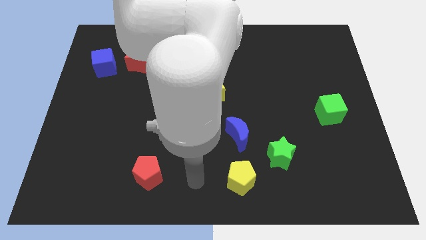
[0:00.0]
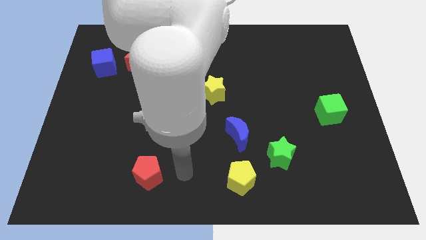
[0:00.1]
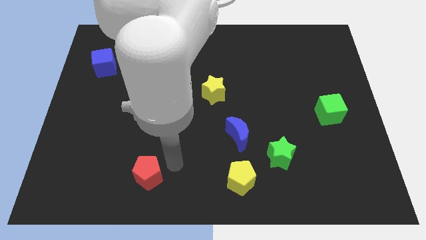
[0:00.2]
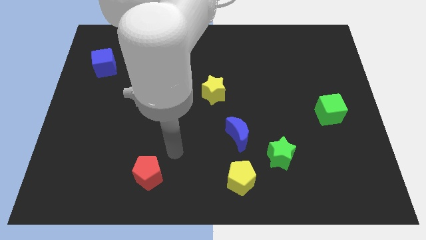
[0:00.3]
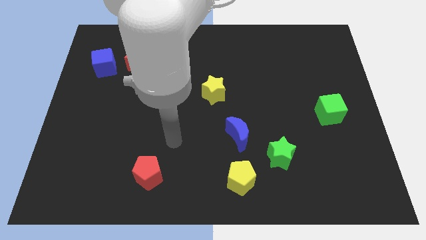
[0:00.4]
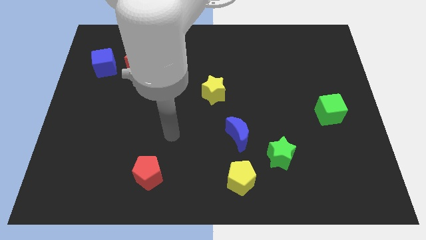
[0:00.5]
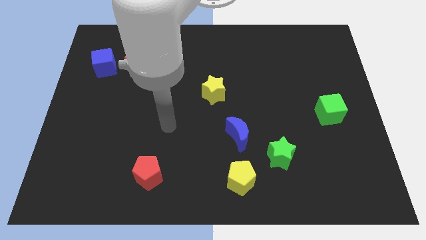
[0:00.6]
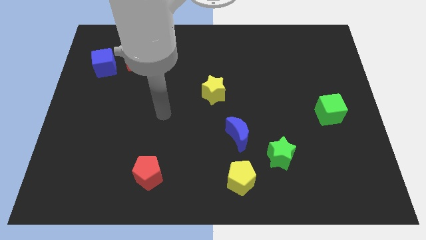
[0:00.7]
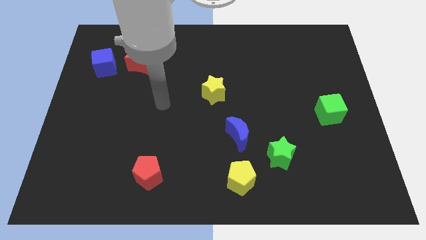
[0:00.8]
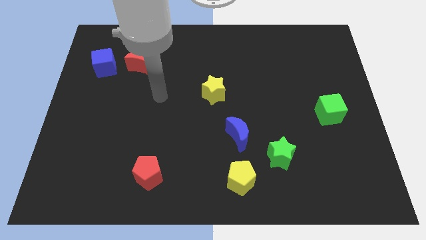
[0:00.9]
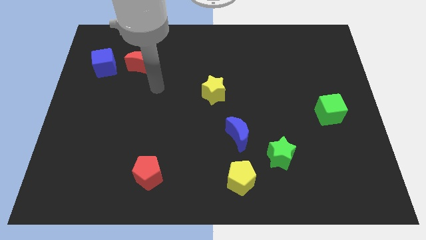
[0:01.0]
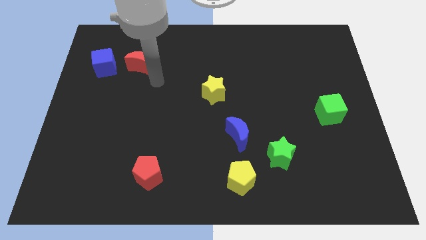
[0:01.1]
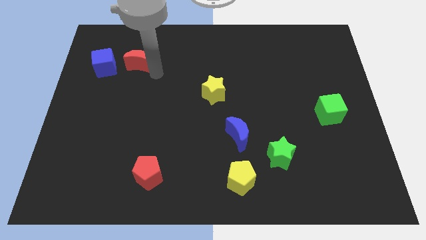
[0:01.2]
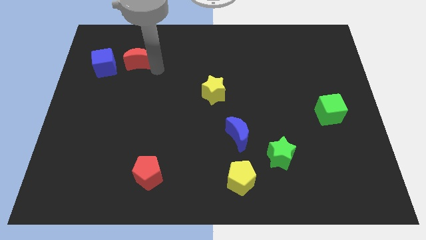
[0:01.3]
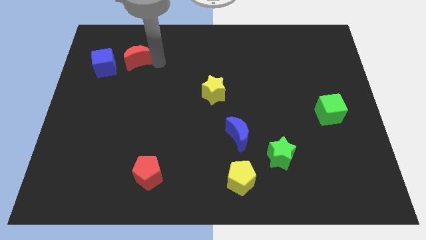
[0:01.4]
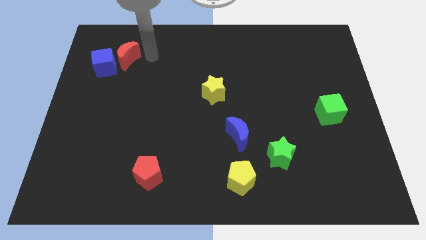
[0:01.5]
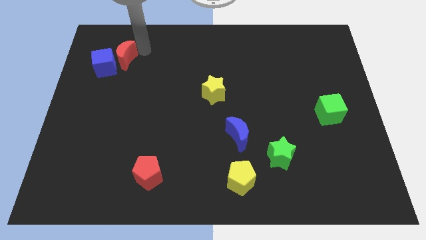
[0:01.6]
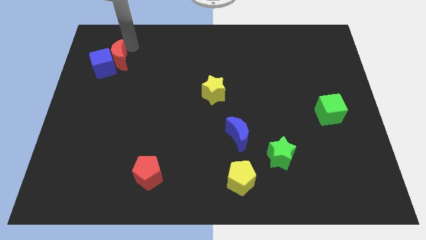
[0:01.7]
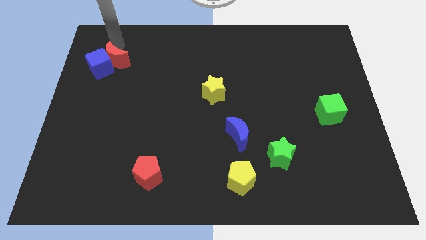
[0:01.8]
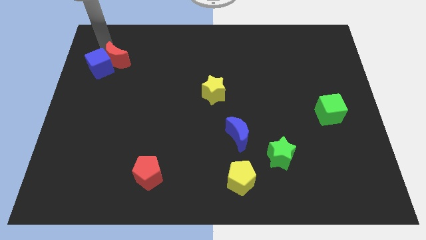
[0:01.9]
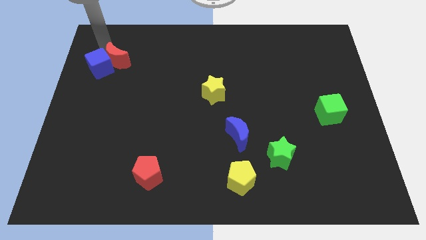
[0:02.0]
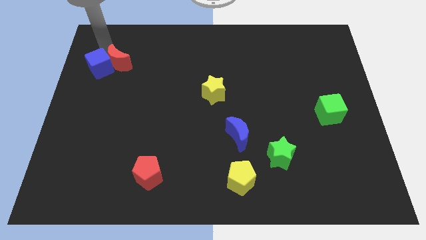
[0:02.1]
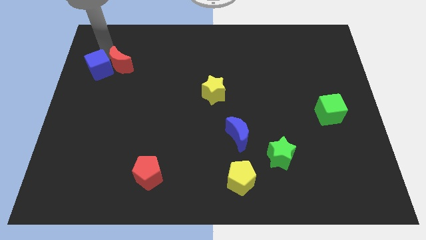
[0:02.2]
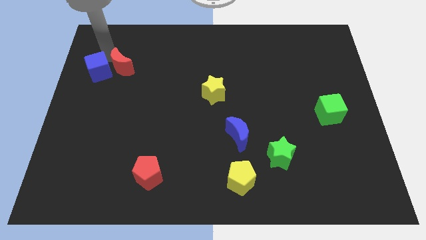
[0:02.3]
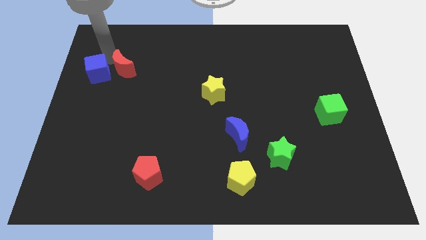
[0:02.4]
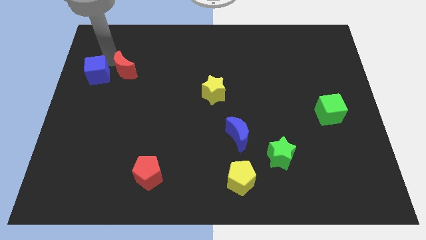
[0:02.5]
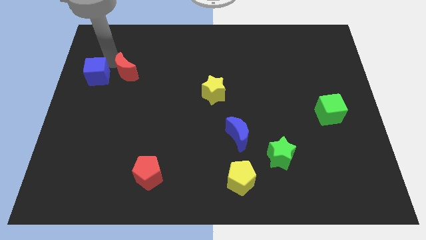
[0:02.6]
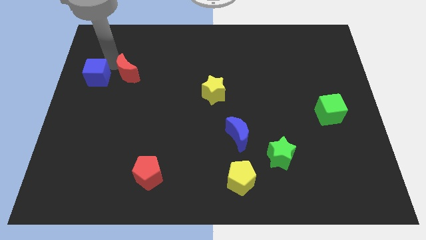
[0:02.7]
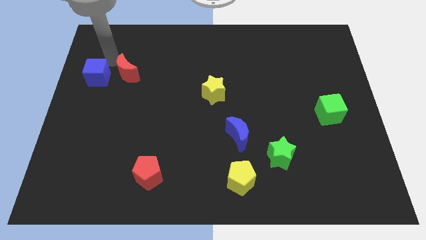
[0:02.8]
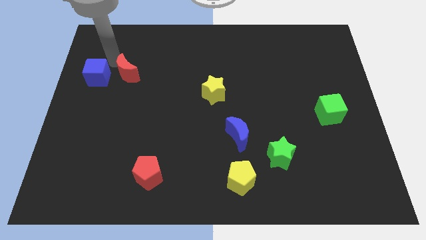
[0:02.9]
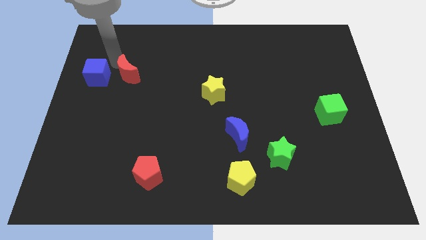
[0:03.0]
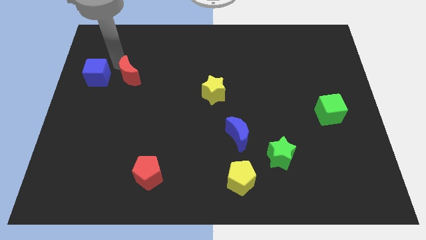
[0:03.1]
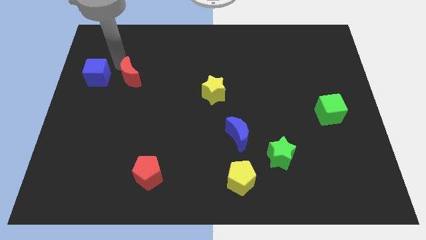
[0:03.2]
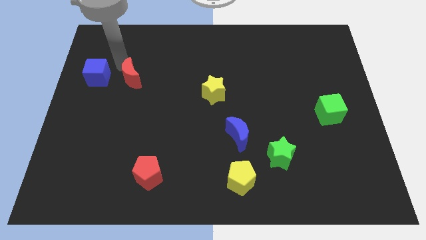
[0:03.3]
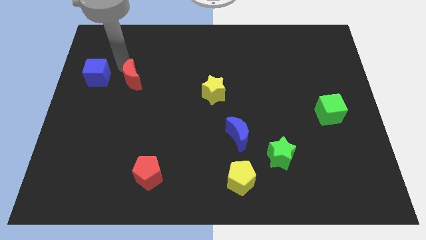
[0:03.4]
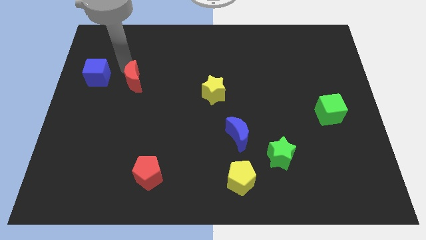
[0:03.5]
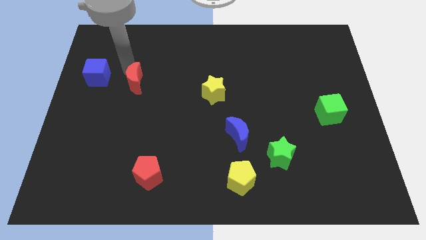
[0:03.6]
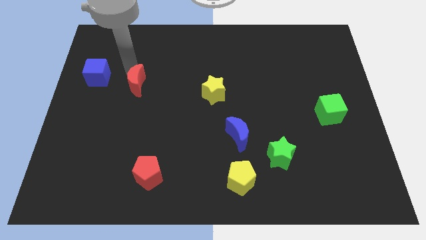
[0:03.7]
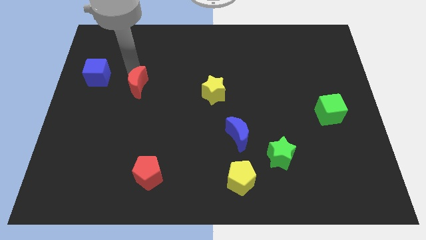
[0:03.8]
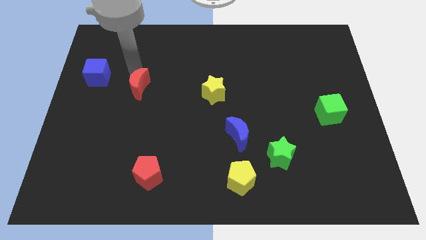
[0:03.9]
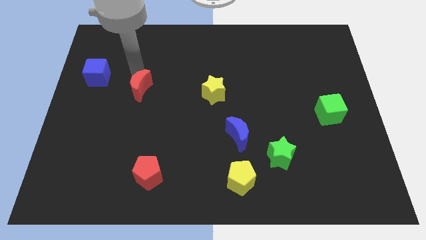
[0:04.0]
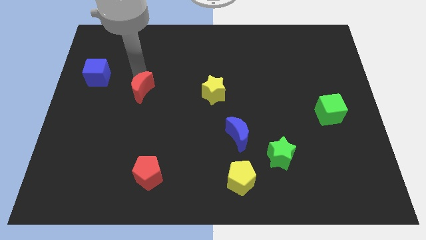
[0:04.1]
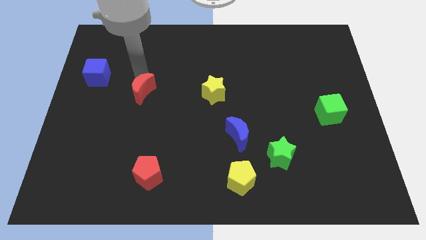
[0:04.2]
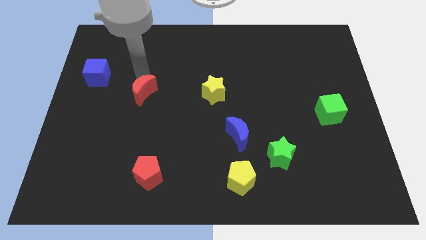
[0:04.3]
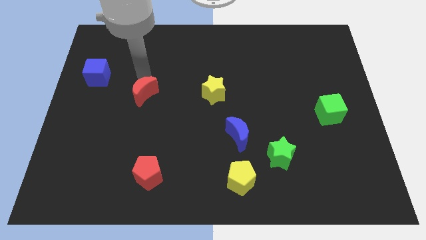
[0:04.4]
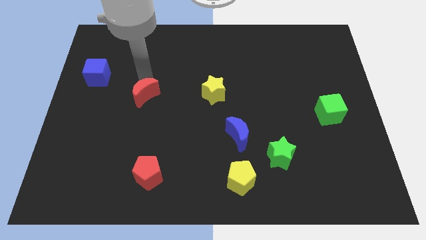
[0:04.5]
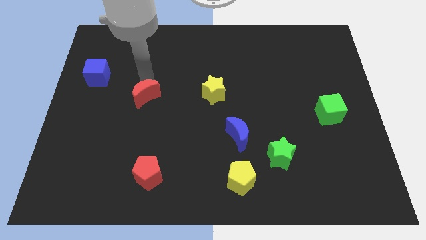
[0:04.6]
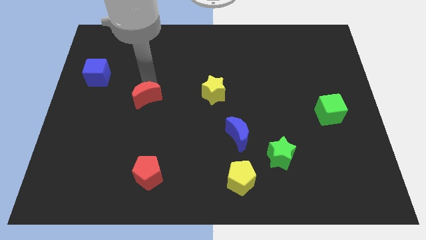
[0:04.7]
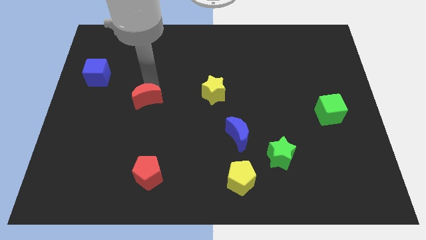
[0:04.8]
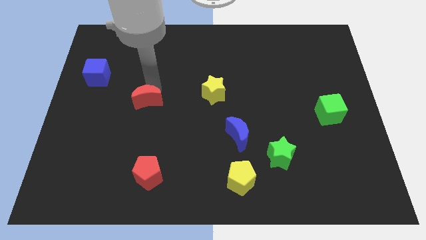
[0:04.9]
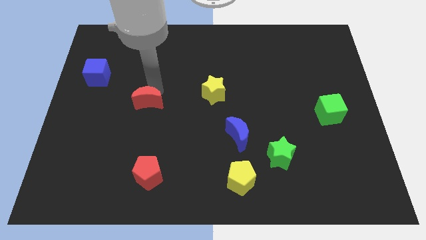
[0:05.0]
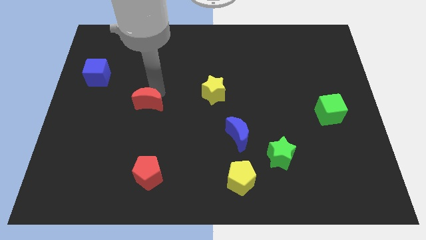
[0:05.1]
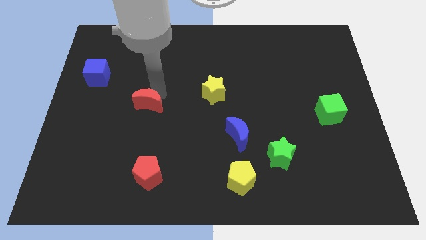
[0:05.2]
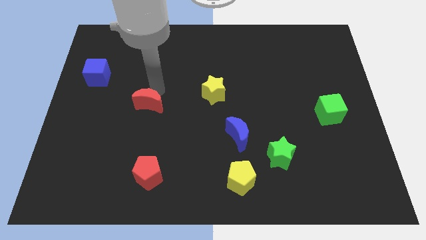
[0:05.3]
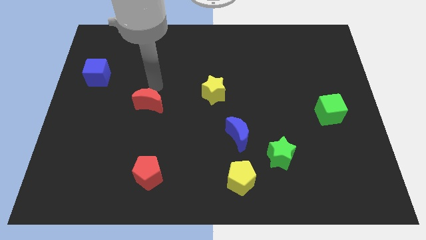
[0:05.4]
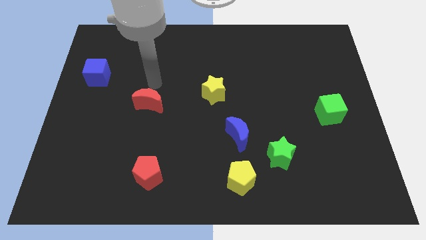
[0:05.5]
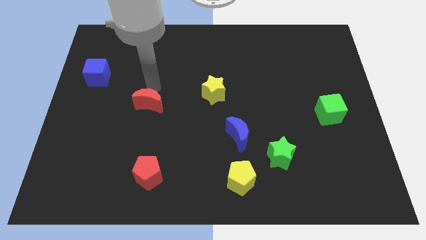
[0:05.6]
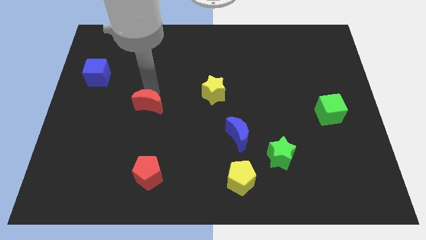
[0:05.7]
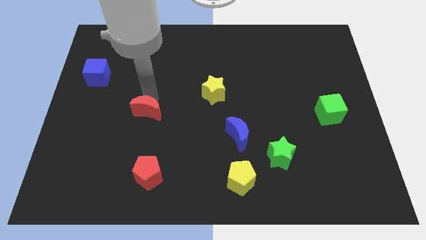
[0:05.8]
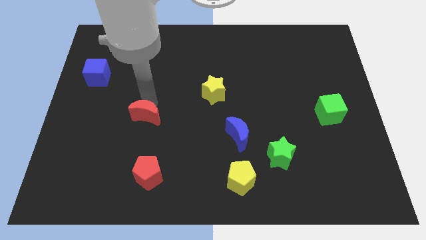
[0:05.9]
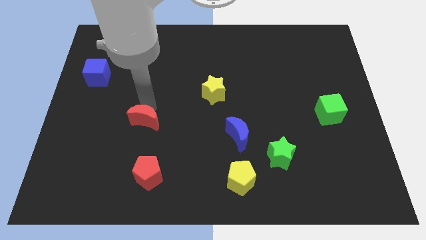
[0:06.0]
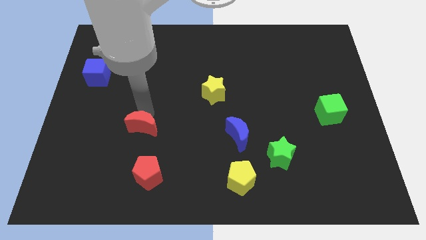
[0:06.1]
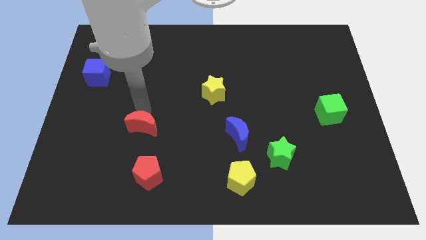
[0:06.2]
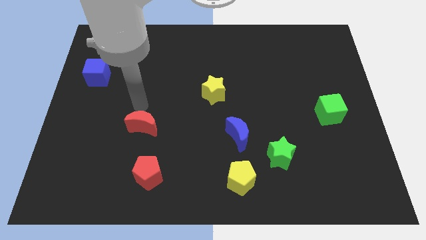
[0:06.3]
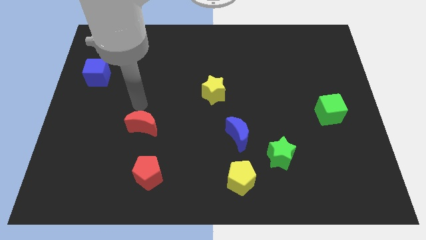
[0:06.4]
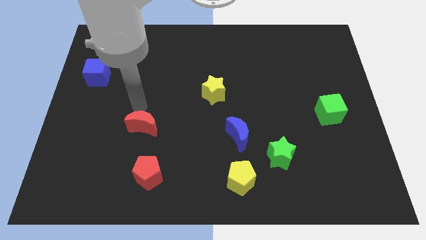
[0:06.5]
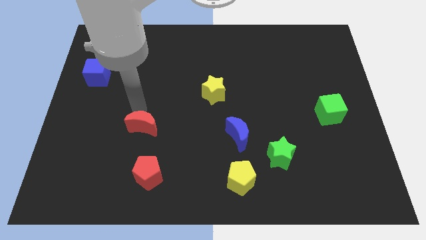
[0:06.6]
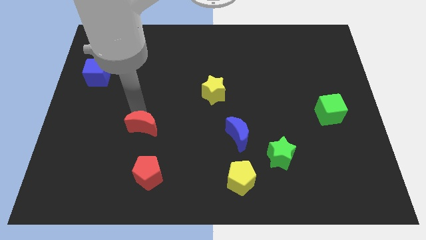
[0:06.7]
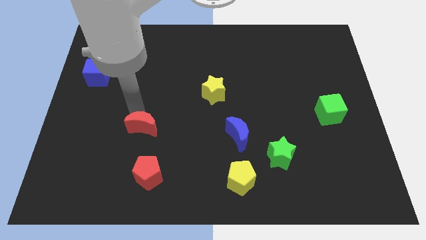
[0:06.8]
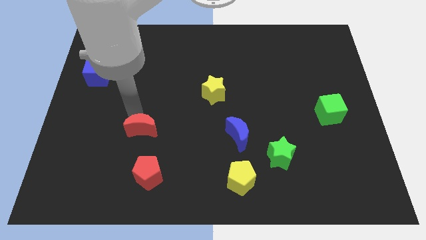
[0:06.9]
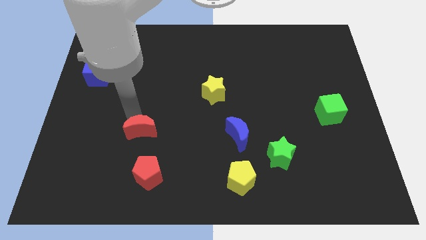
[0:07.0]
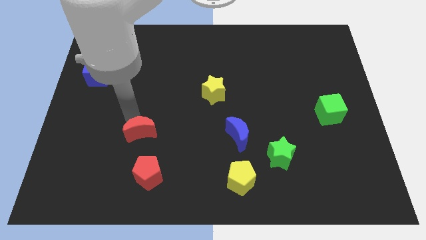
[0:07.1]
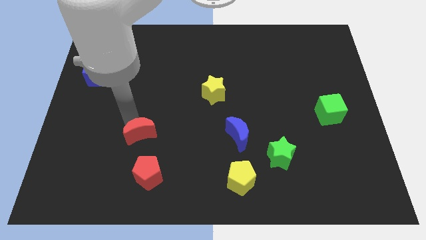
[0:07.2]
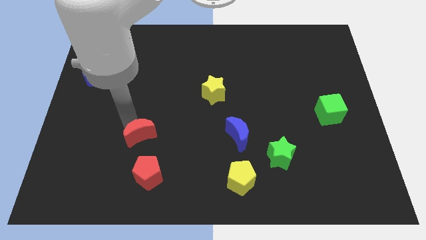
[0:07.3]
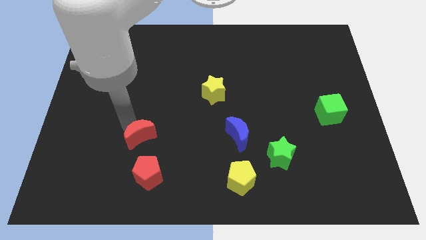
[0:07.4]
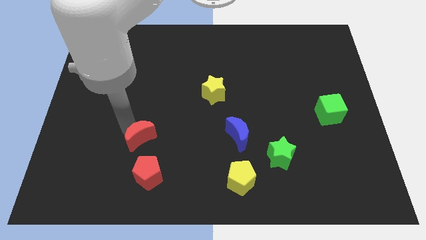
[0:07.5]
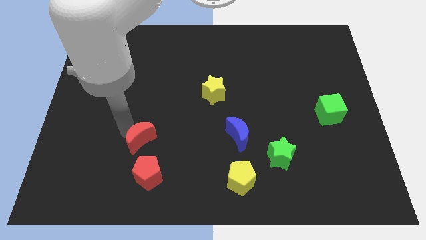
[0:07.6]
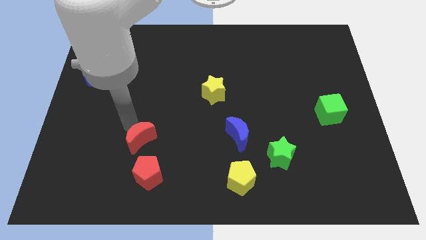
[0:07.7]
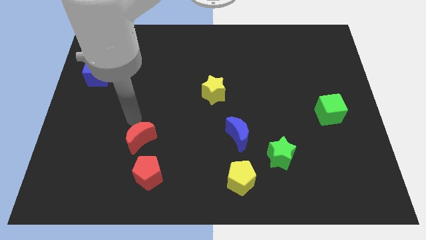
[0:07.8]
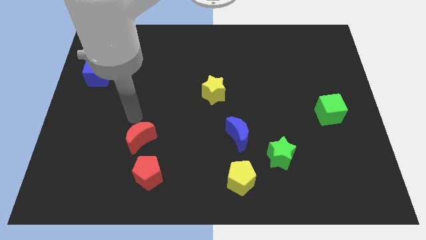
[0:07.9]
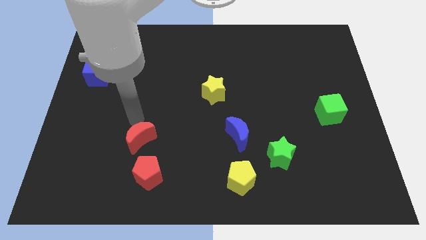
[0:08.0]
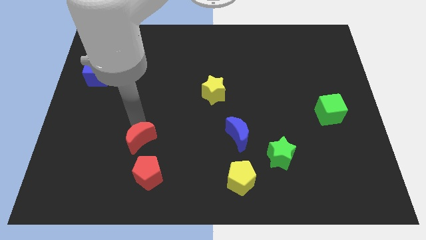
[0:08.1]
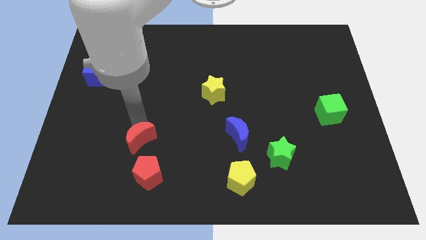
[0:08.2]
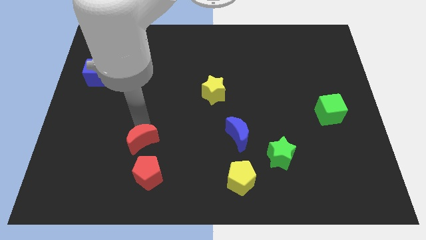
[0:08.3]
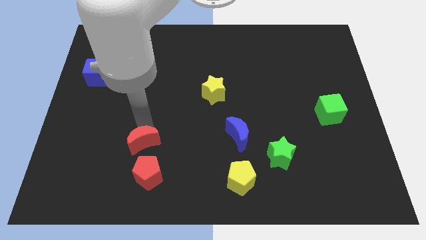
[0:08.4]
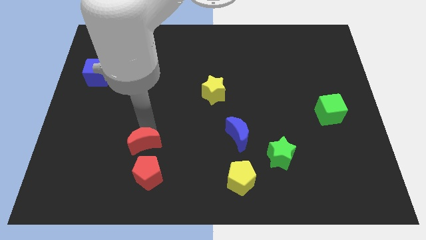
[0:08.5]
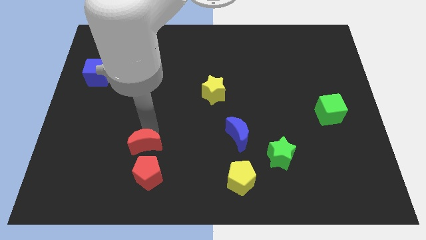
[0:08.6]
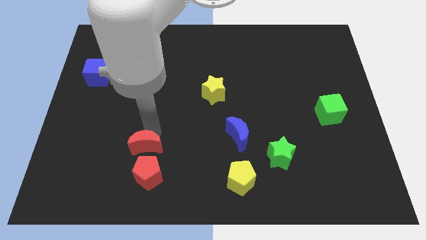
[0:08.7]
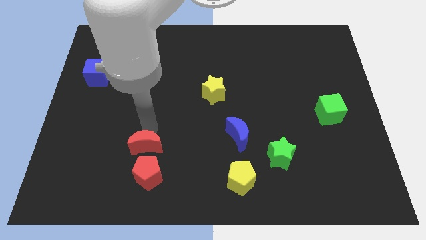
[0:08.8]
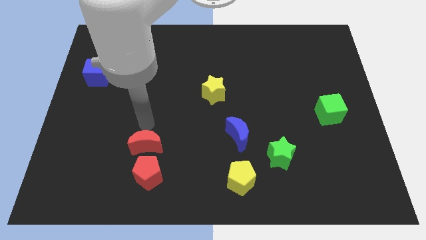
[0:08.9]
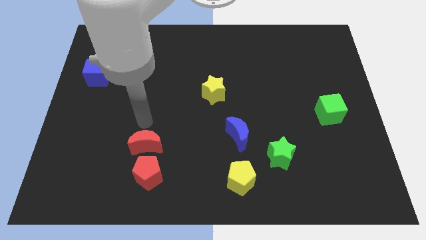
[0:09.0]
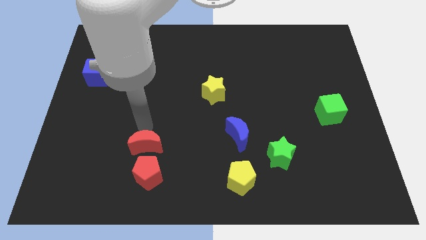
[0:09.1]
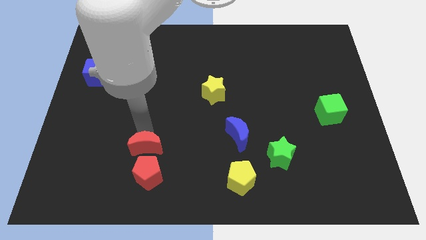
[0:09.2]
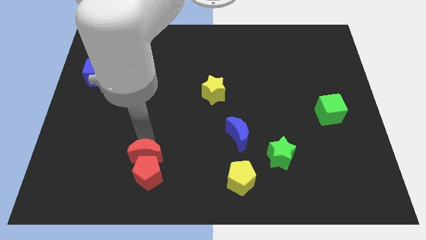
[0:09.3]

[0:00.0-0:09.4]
slide the red moon towards the red pentagon
